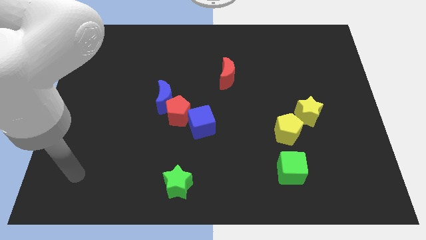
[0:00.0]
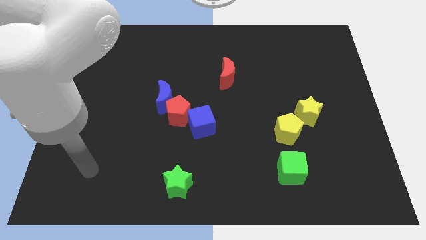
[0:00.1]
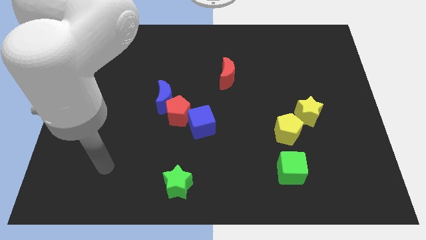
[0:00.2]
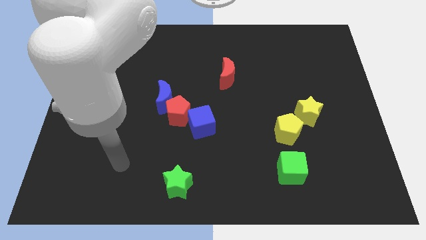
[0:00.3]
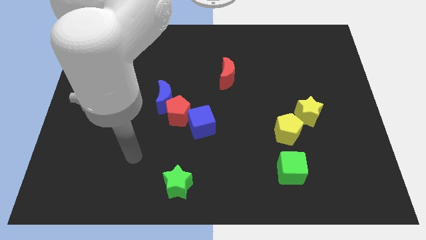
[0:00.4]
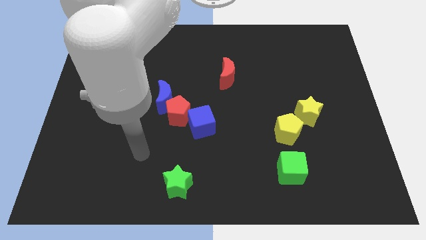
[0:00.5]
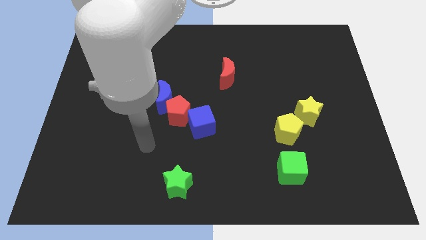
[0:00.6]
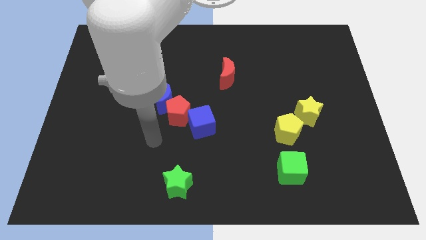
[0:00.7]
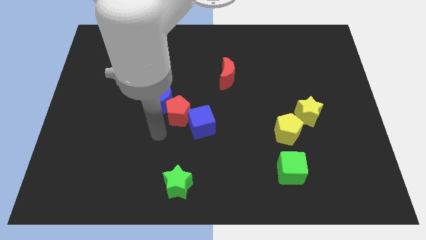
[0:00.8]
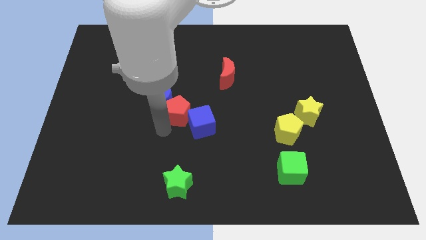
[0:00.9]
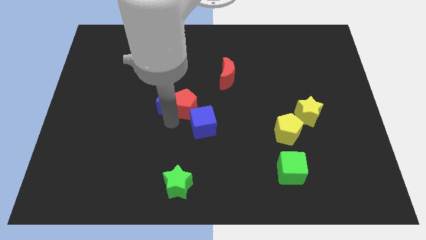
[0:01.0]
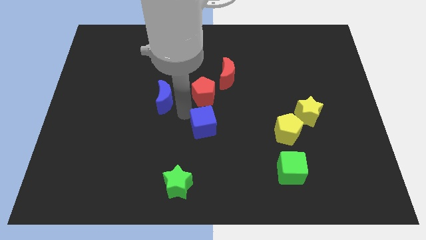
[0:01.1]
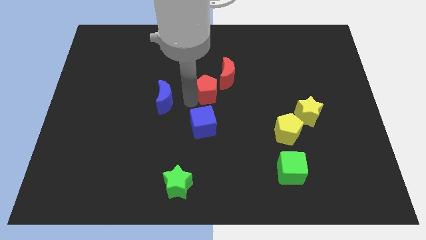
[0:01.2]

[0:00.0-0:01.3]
separate the blue moon from the red pentagon

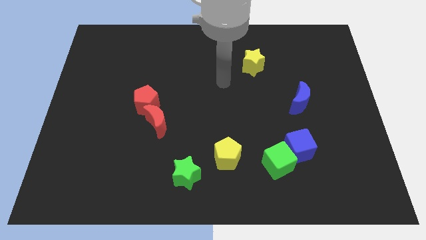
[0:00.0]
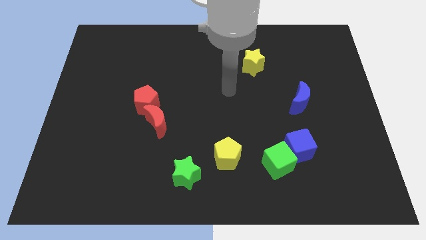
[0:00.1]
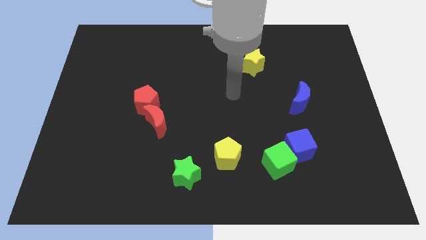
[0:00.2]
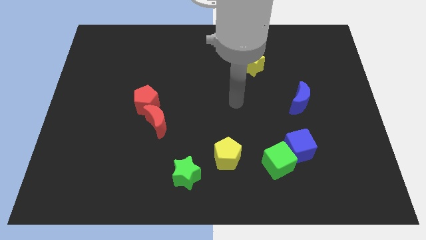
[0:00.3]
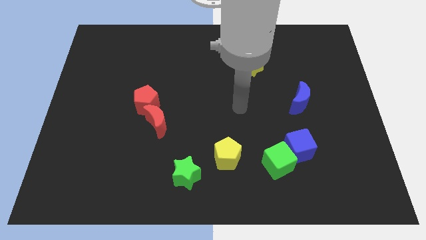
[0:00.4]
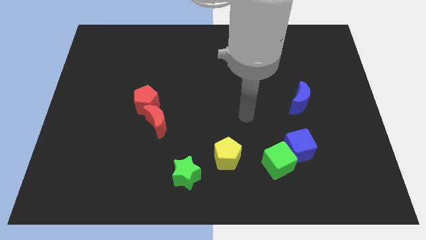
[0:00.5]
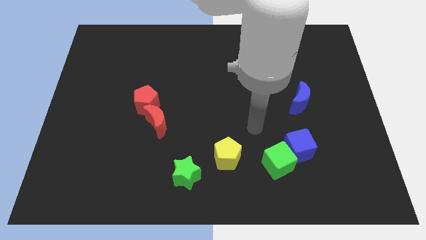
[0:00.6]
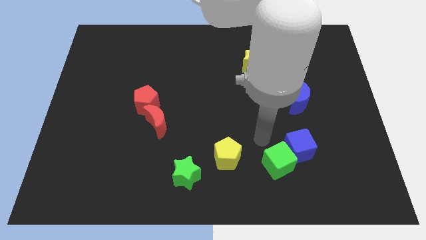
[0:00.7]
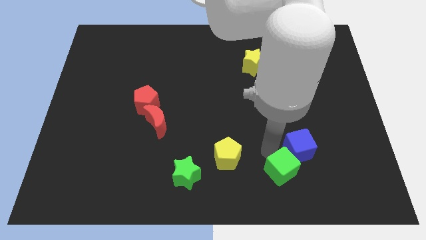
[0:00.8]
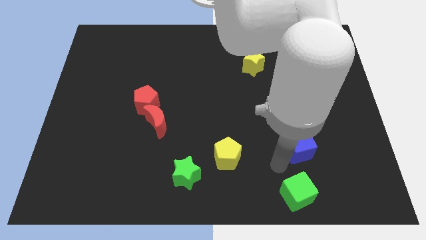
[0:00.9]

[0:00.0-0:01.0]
separate the blue cube from the green cube

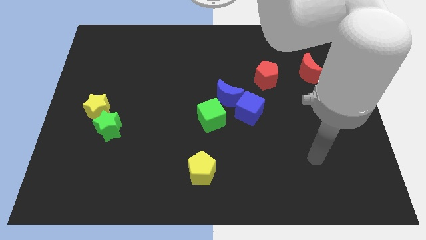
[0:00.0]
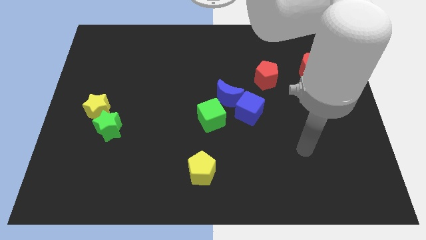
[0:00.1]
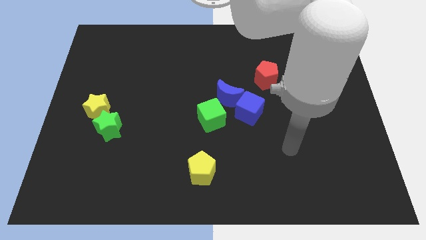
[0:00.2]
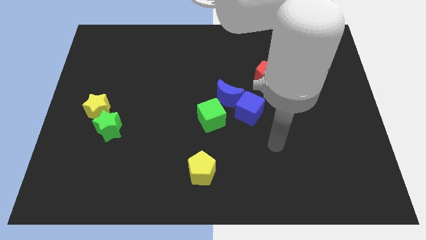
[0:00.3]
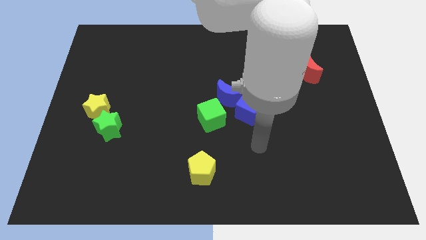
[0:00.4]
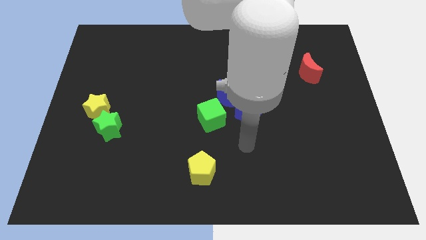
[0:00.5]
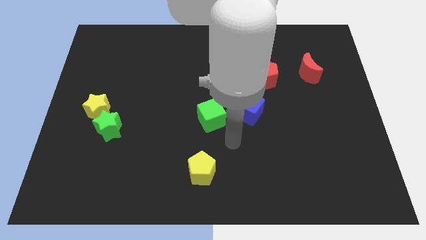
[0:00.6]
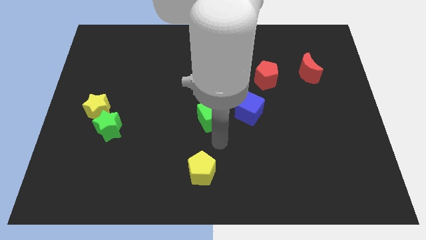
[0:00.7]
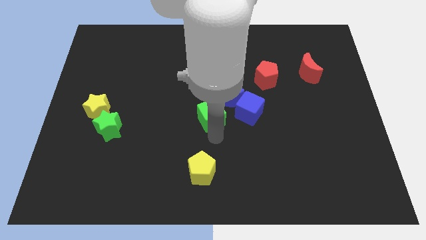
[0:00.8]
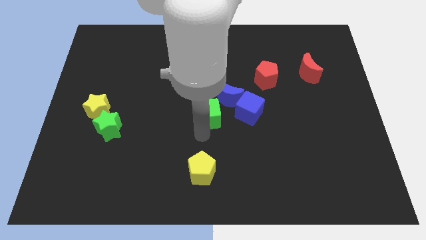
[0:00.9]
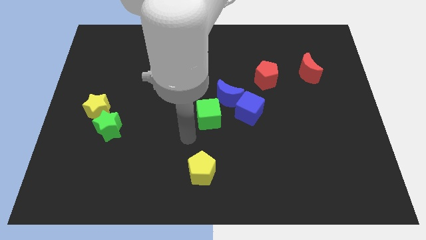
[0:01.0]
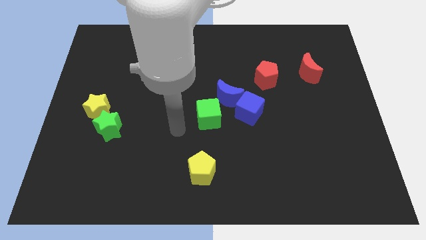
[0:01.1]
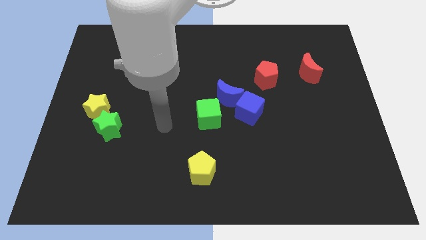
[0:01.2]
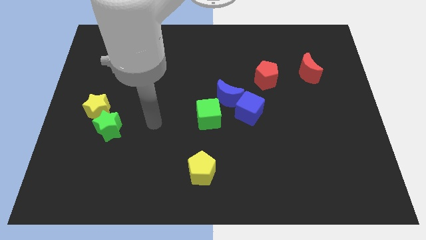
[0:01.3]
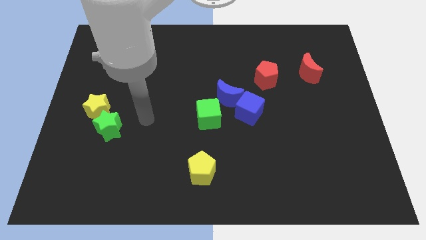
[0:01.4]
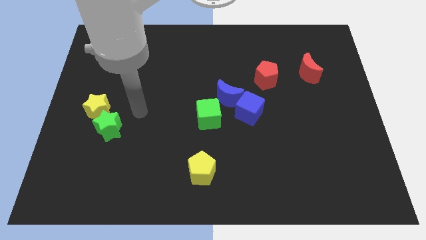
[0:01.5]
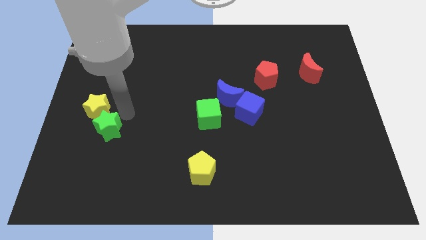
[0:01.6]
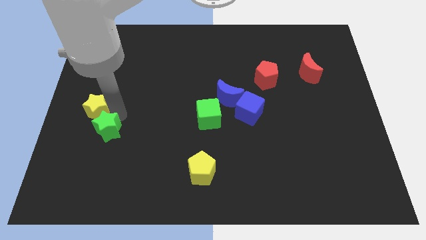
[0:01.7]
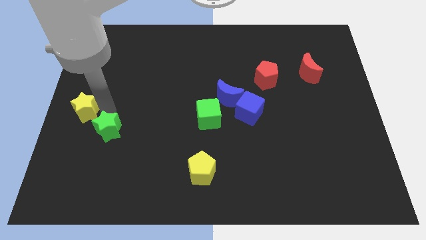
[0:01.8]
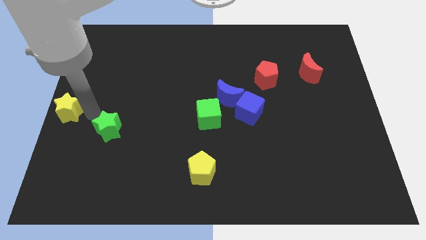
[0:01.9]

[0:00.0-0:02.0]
separate the green star from the yellow star

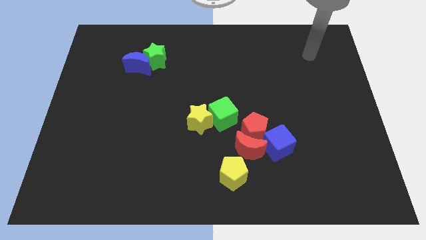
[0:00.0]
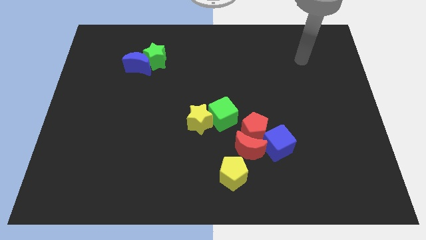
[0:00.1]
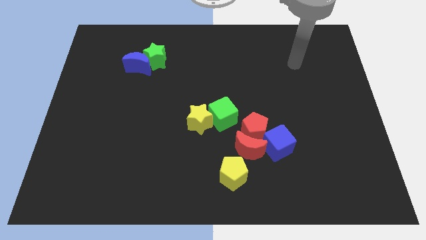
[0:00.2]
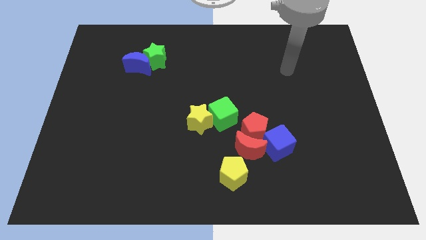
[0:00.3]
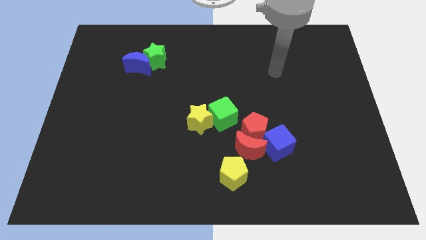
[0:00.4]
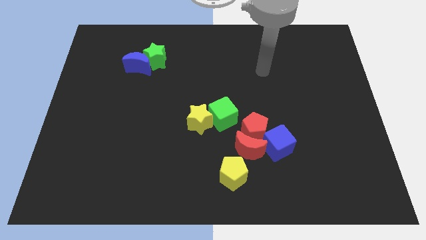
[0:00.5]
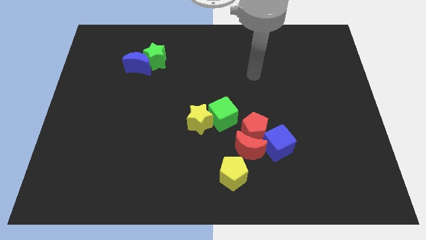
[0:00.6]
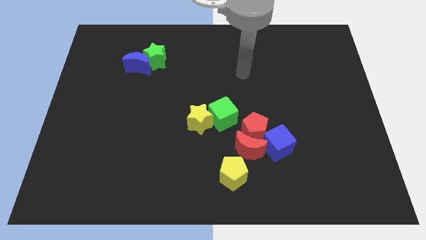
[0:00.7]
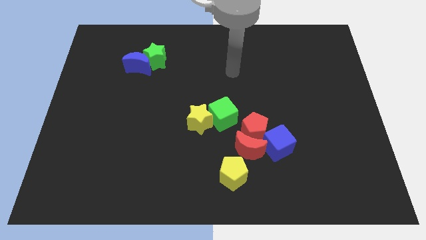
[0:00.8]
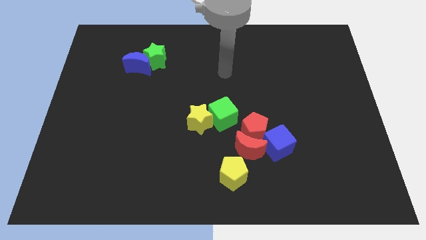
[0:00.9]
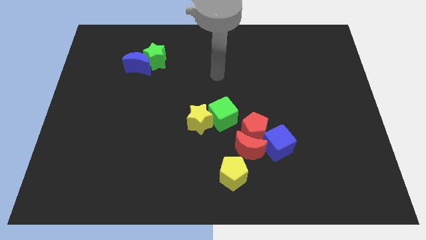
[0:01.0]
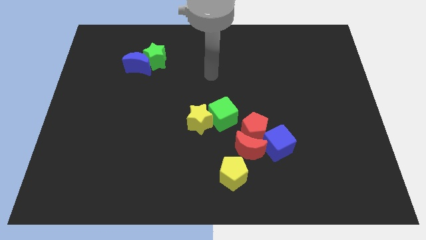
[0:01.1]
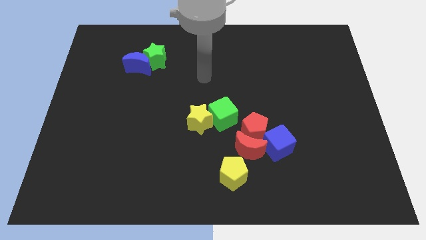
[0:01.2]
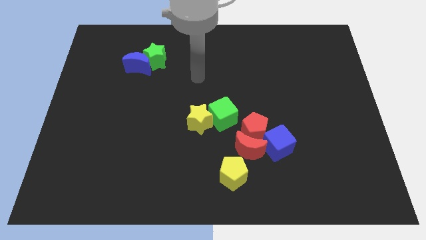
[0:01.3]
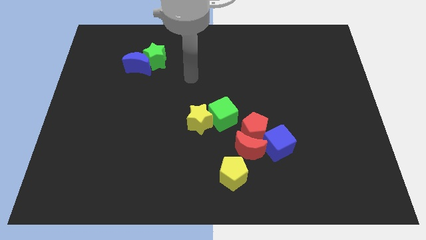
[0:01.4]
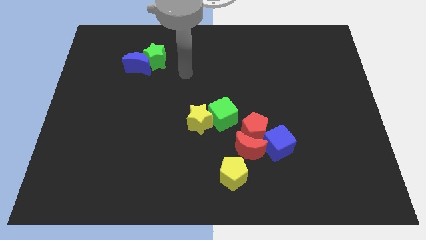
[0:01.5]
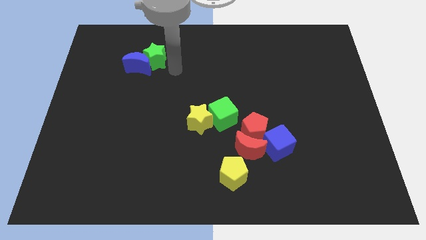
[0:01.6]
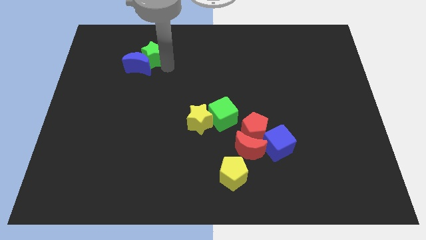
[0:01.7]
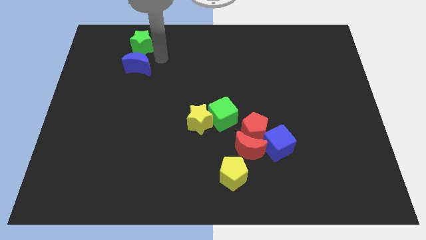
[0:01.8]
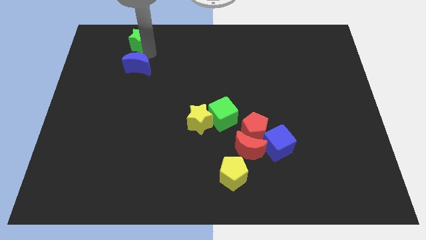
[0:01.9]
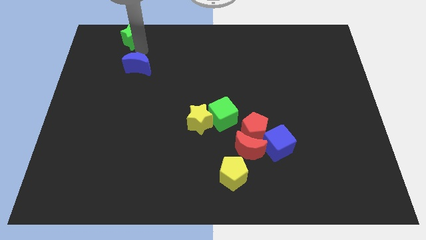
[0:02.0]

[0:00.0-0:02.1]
move the blue moon away from the green star

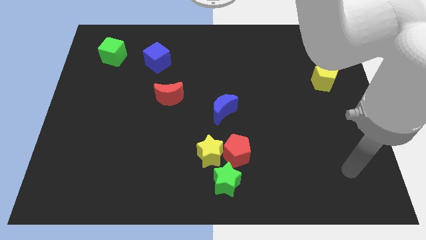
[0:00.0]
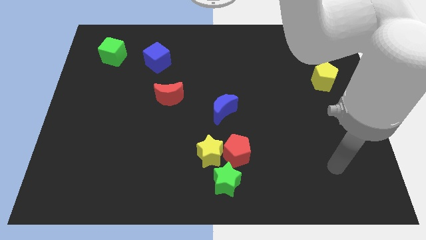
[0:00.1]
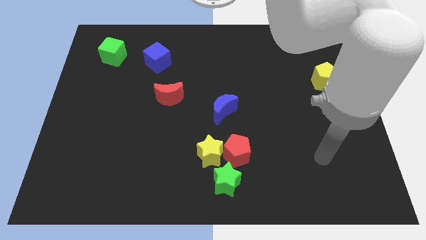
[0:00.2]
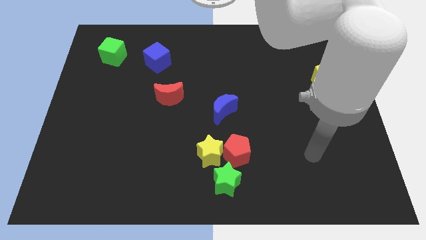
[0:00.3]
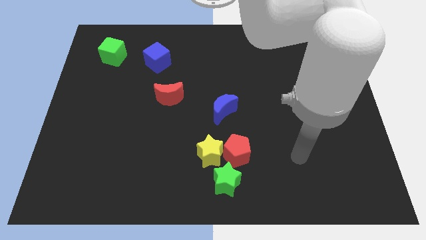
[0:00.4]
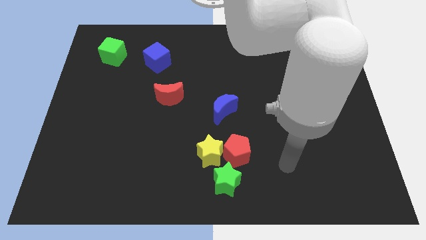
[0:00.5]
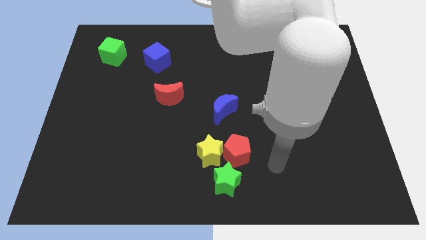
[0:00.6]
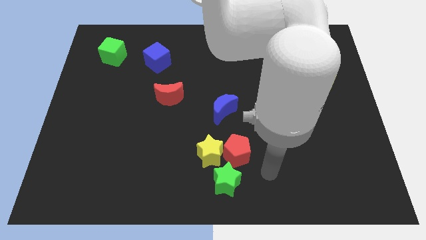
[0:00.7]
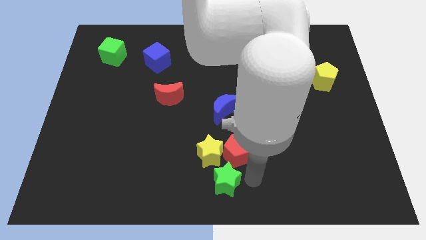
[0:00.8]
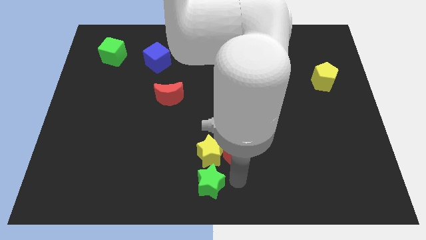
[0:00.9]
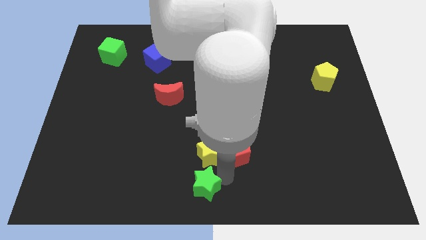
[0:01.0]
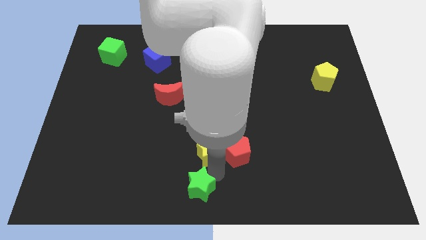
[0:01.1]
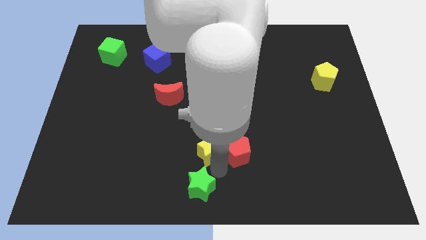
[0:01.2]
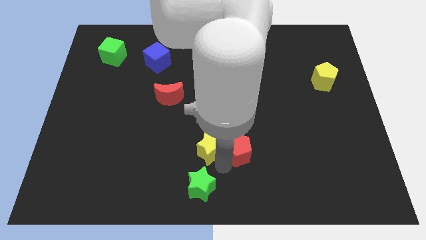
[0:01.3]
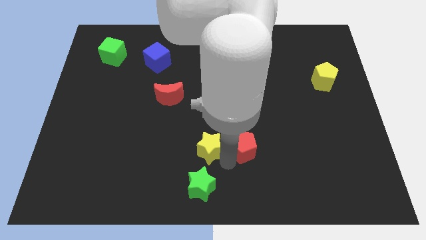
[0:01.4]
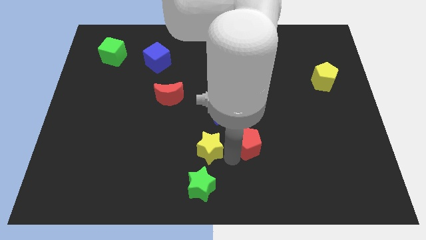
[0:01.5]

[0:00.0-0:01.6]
move the red pentagon away from the yellow star and green star

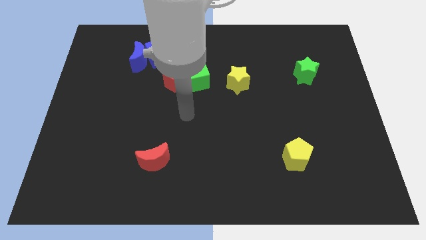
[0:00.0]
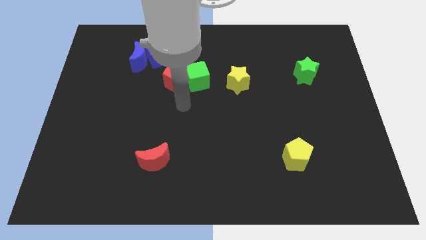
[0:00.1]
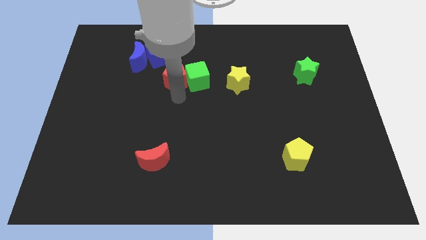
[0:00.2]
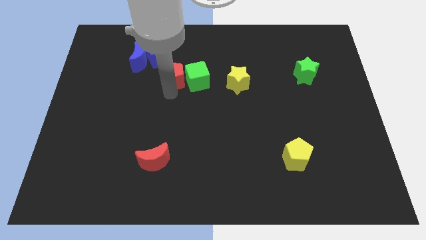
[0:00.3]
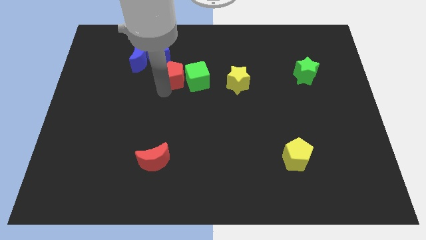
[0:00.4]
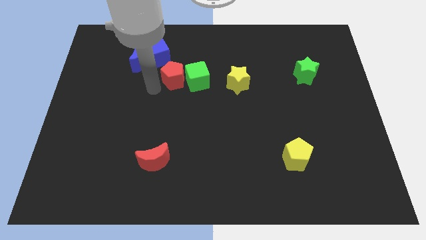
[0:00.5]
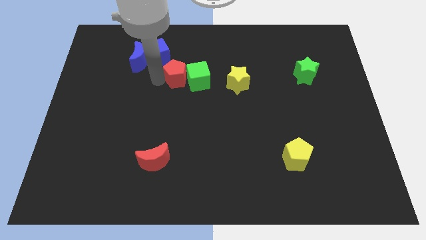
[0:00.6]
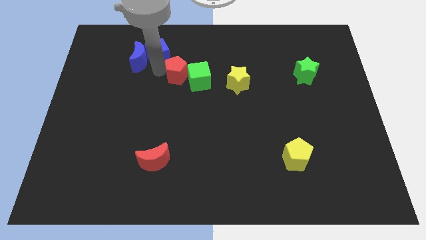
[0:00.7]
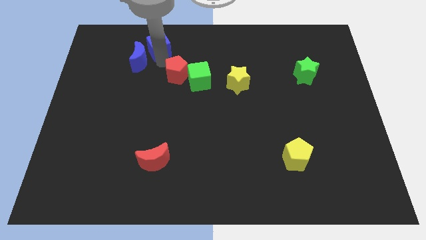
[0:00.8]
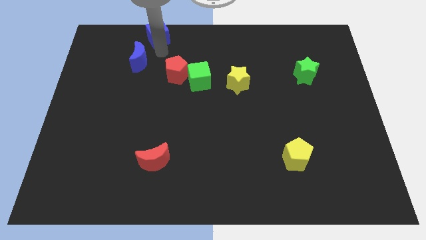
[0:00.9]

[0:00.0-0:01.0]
pull the blue moon apart from the blue cube
